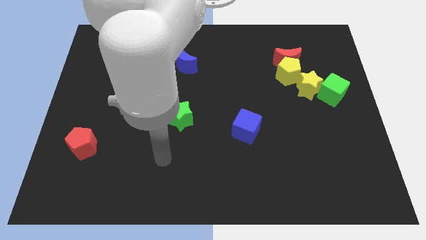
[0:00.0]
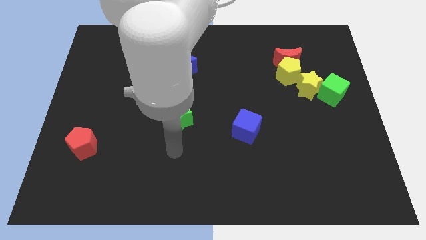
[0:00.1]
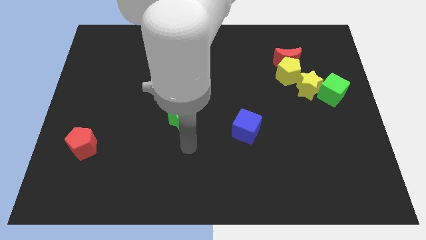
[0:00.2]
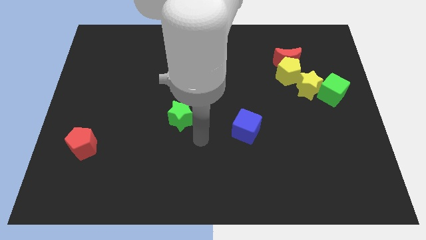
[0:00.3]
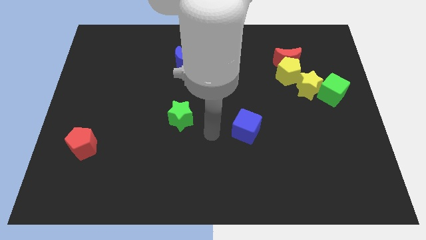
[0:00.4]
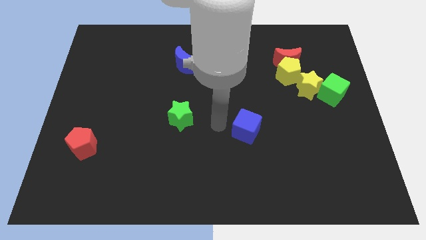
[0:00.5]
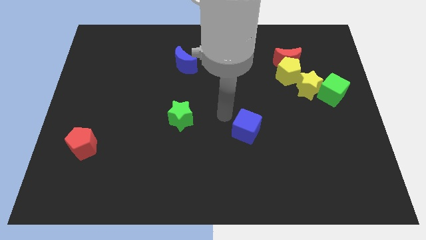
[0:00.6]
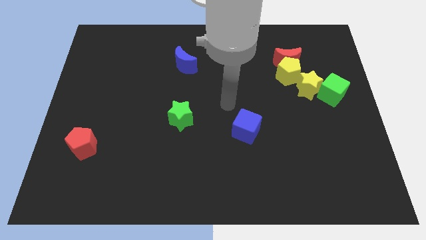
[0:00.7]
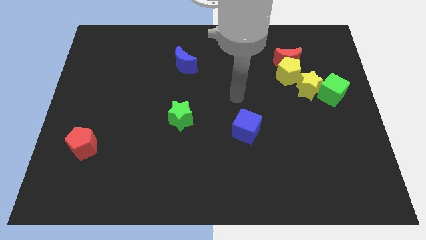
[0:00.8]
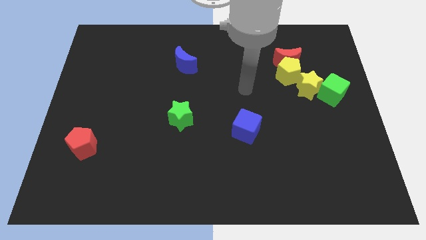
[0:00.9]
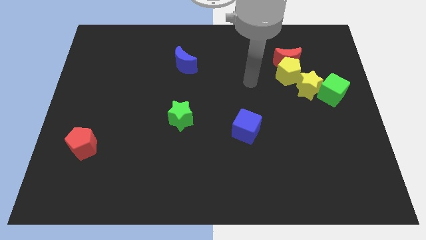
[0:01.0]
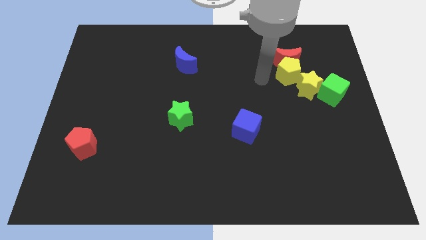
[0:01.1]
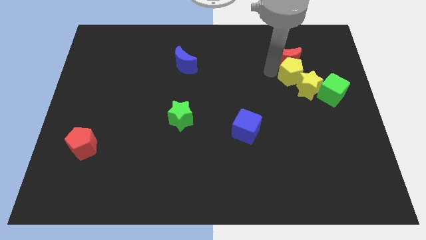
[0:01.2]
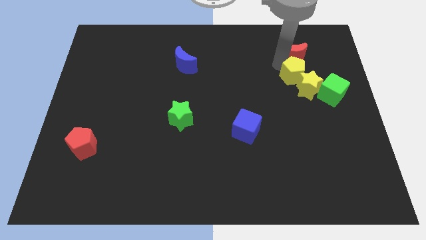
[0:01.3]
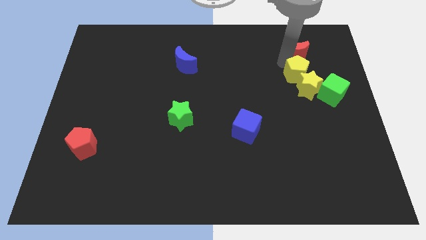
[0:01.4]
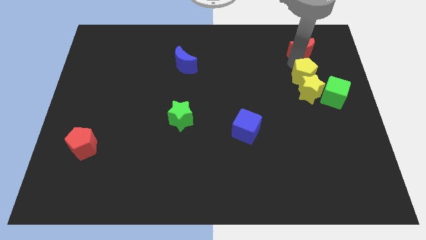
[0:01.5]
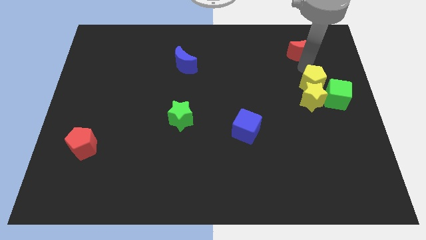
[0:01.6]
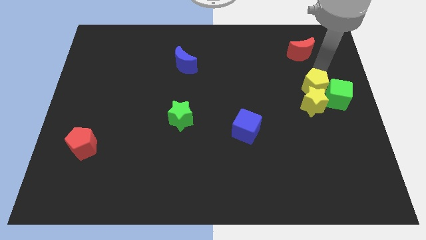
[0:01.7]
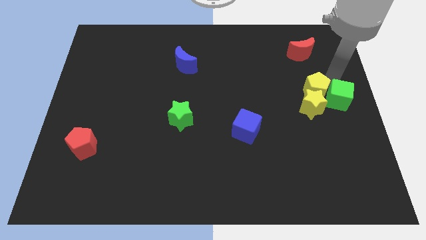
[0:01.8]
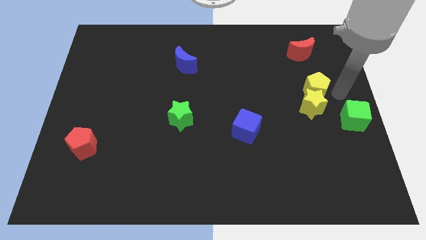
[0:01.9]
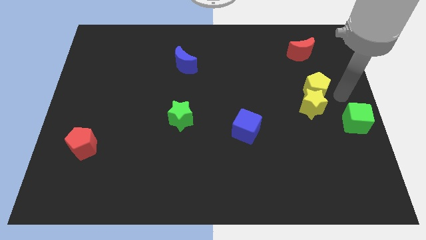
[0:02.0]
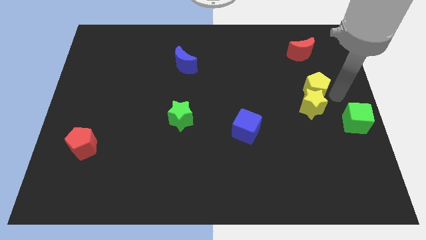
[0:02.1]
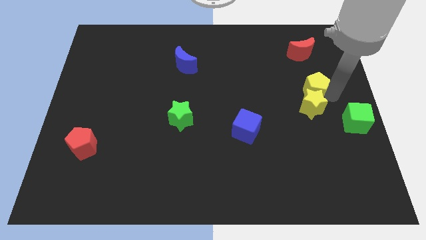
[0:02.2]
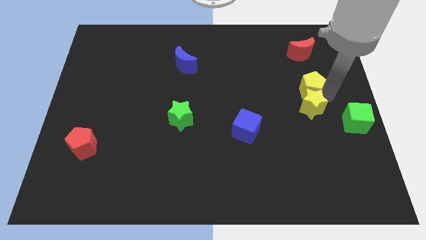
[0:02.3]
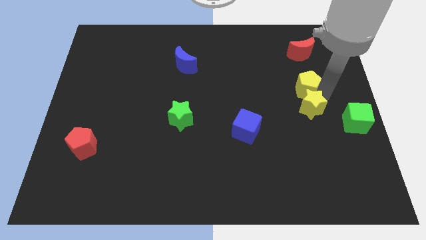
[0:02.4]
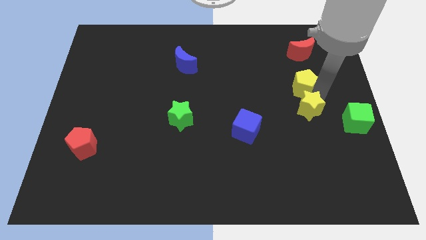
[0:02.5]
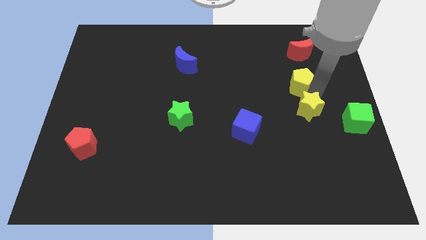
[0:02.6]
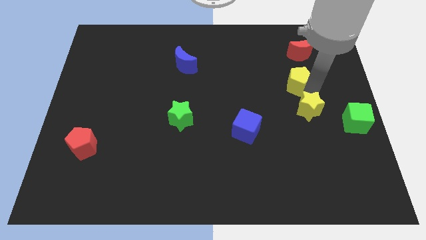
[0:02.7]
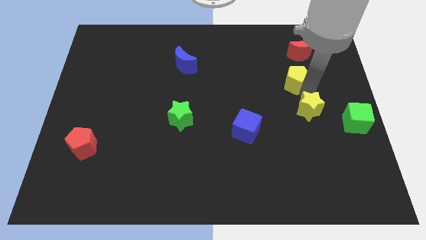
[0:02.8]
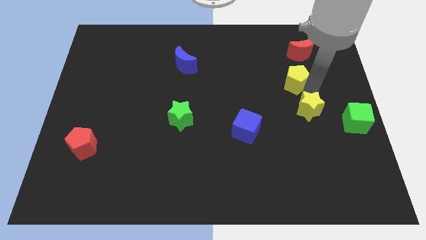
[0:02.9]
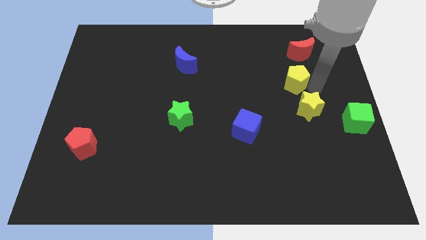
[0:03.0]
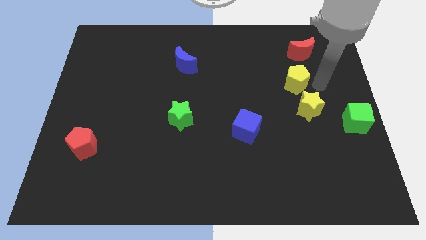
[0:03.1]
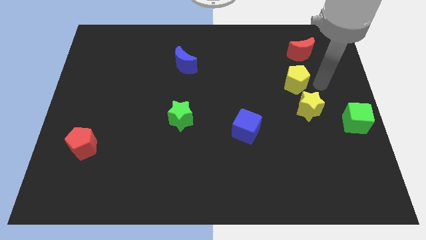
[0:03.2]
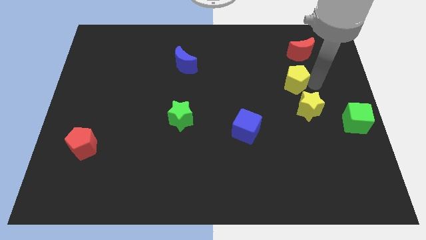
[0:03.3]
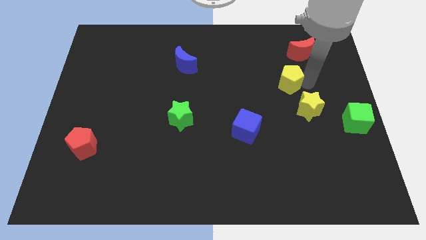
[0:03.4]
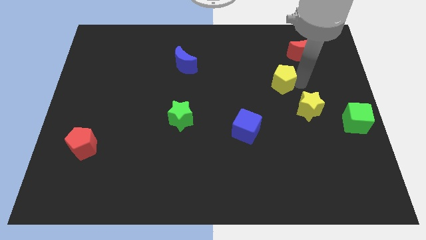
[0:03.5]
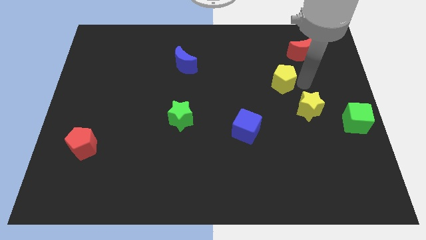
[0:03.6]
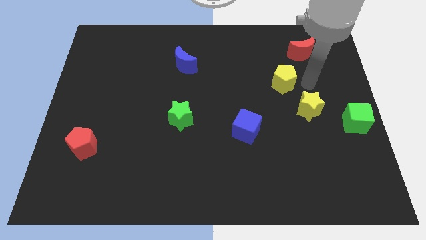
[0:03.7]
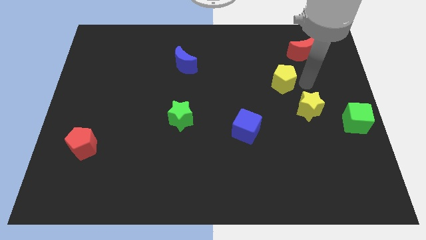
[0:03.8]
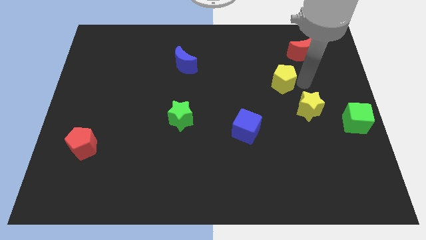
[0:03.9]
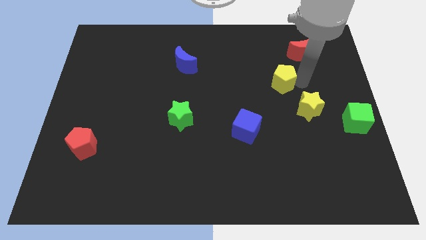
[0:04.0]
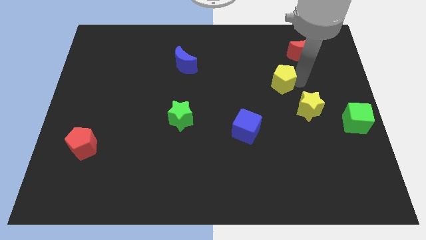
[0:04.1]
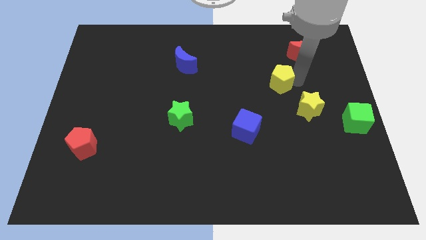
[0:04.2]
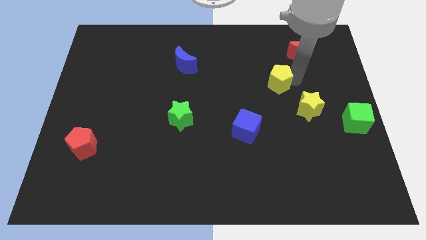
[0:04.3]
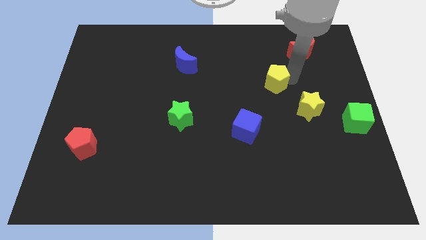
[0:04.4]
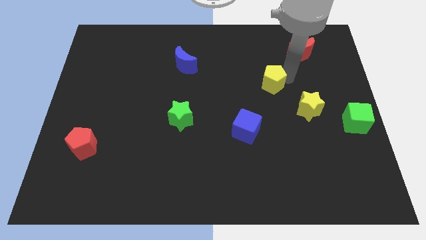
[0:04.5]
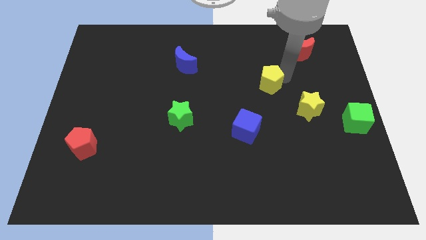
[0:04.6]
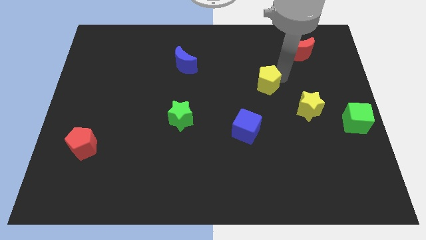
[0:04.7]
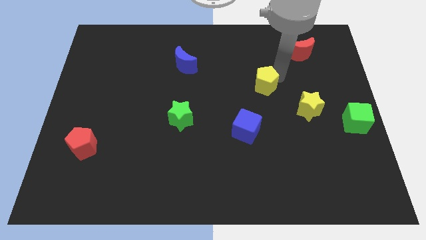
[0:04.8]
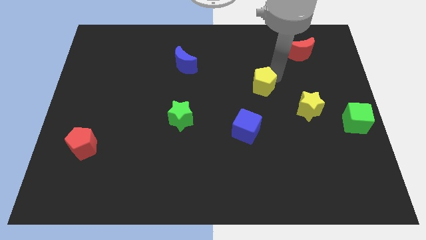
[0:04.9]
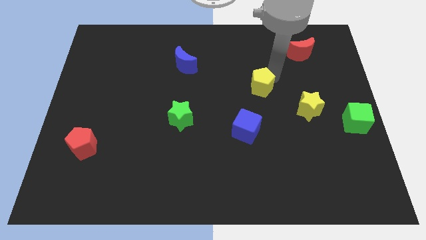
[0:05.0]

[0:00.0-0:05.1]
push the yellow pentagon to the center of the board

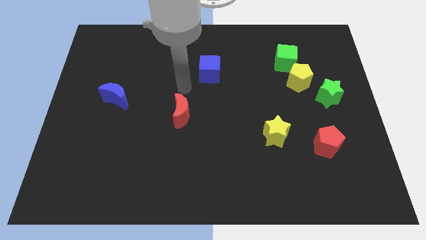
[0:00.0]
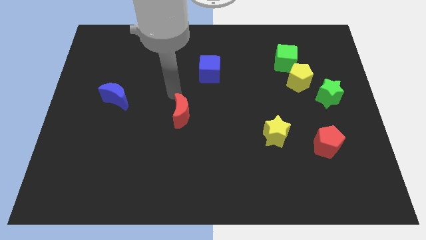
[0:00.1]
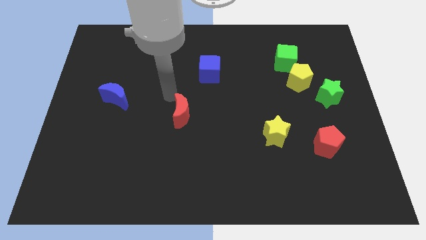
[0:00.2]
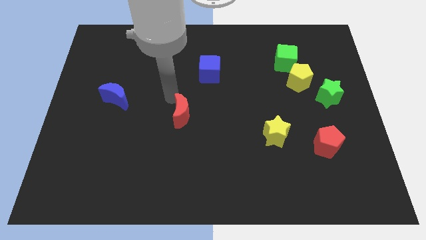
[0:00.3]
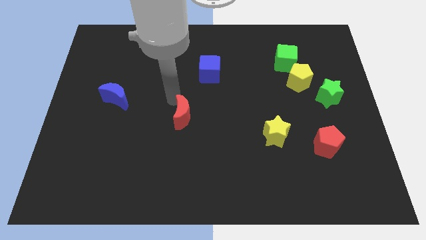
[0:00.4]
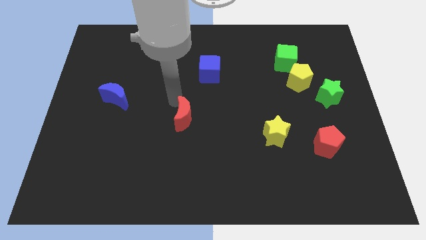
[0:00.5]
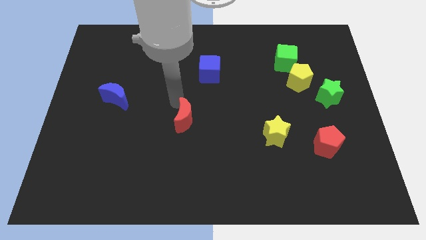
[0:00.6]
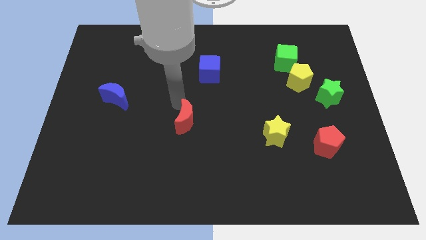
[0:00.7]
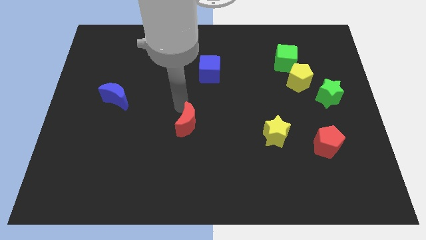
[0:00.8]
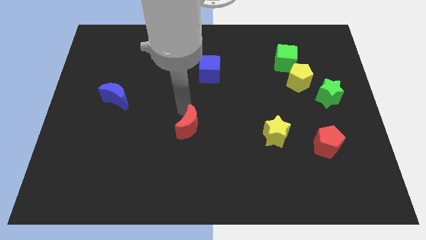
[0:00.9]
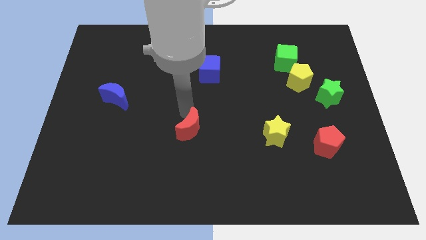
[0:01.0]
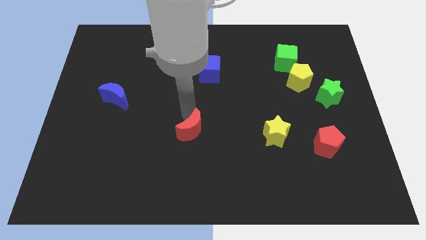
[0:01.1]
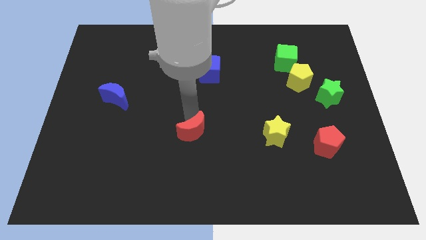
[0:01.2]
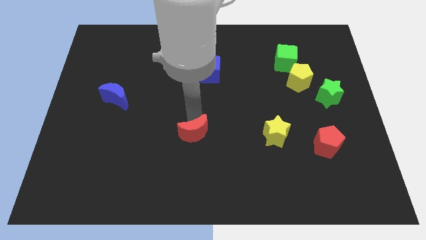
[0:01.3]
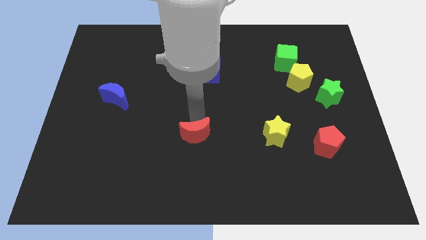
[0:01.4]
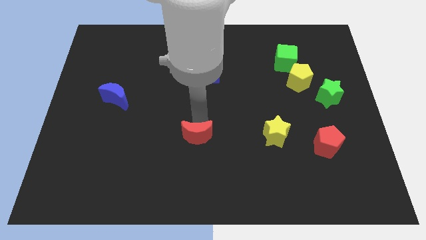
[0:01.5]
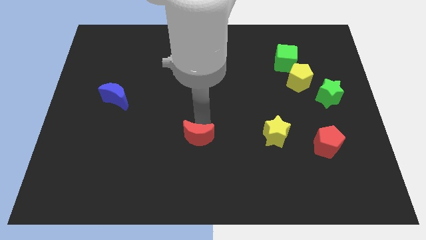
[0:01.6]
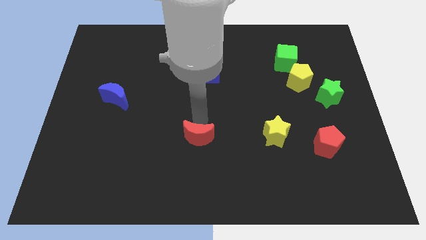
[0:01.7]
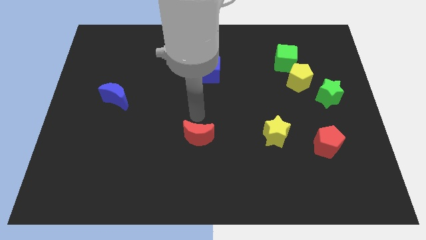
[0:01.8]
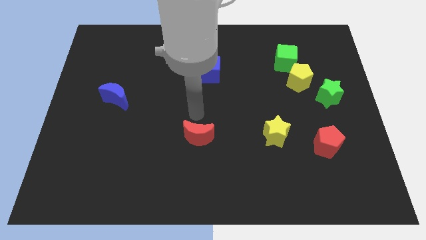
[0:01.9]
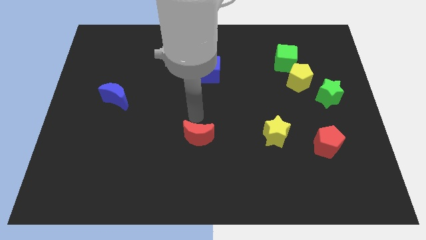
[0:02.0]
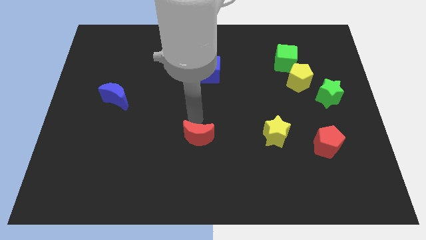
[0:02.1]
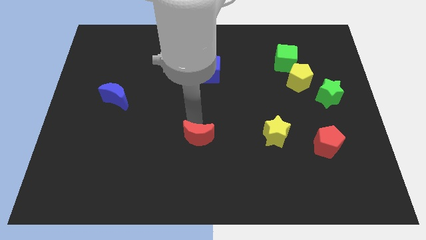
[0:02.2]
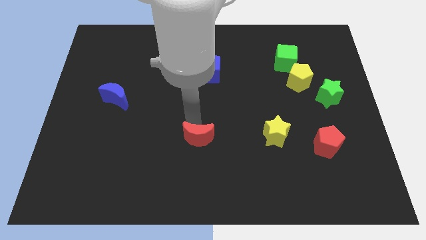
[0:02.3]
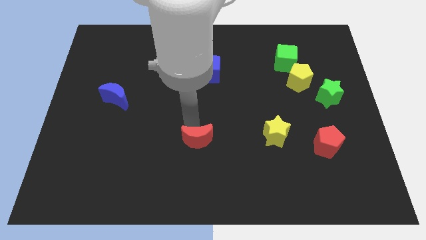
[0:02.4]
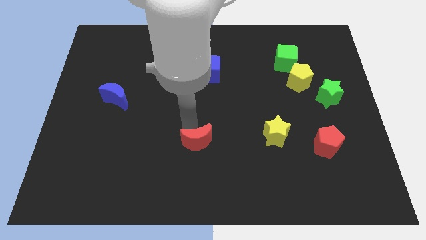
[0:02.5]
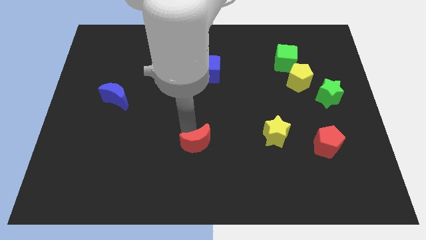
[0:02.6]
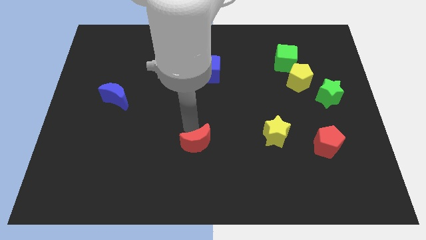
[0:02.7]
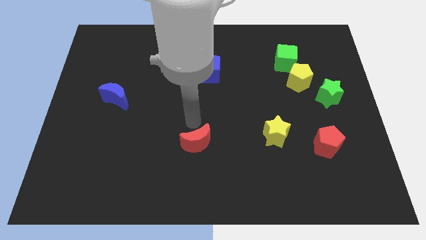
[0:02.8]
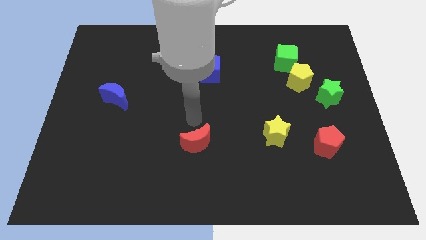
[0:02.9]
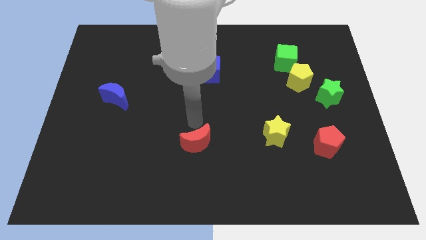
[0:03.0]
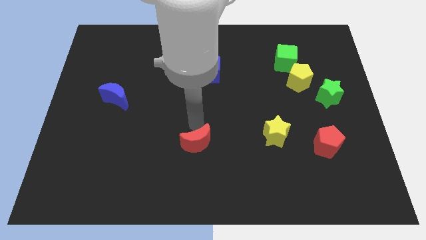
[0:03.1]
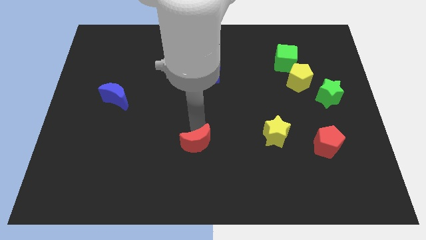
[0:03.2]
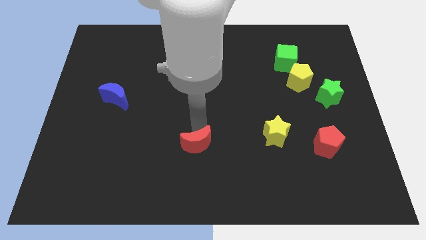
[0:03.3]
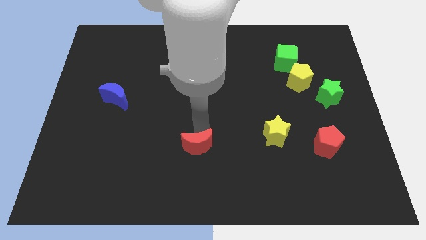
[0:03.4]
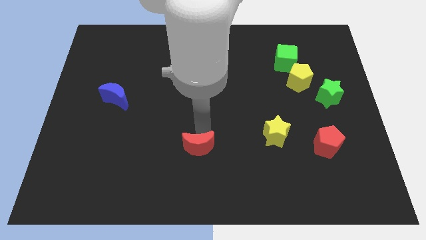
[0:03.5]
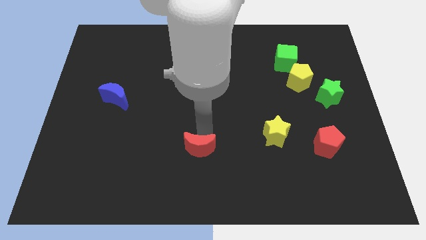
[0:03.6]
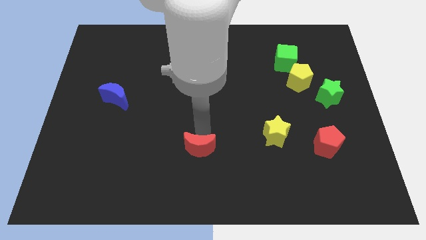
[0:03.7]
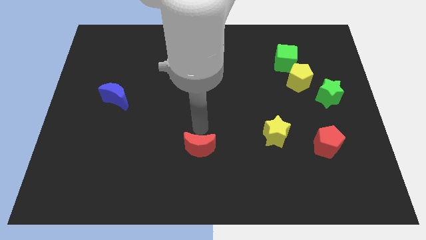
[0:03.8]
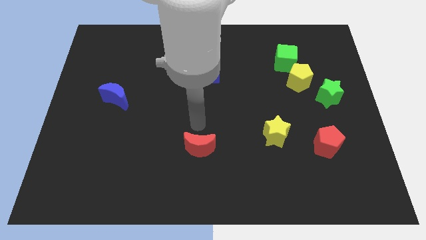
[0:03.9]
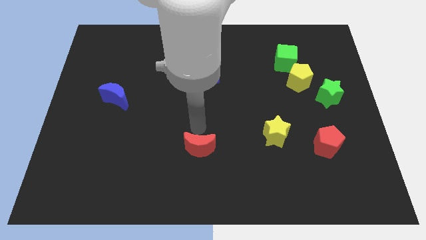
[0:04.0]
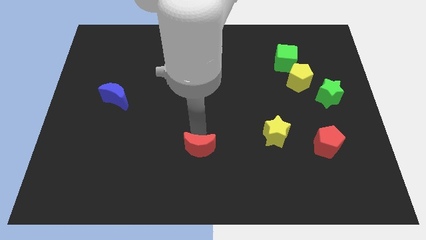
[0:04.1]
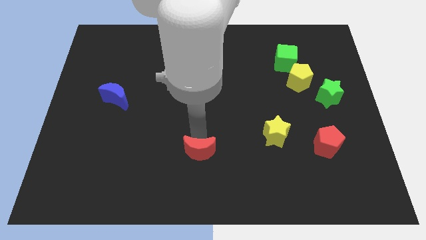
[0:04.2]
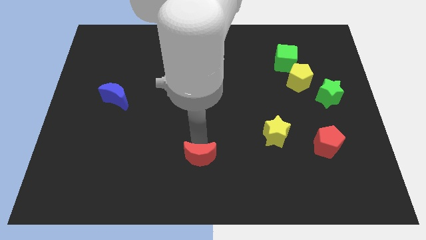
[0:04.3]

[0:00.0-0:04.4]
slide the red moon to the bottom
